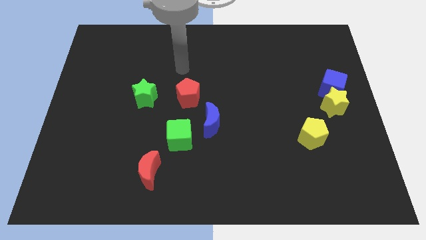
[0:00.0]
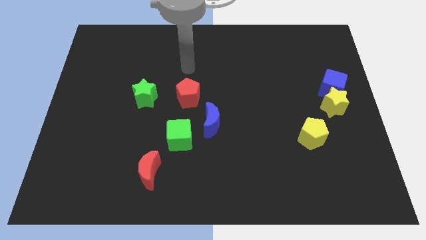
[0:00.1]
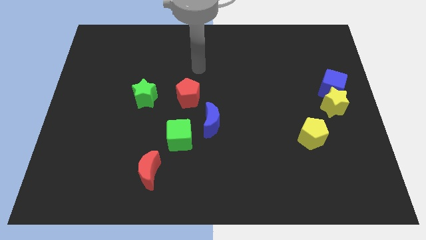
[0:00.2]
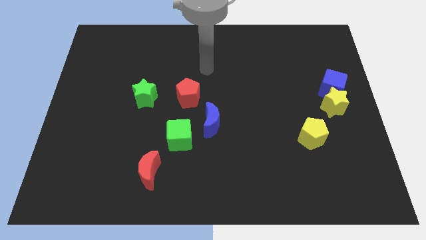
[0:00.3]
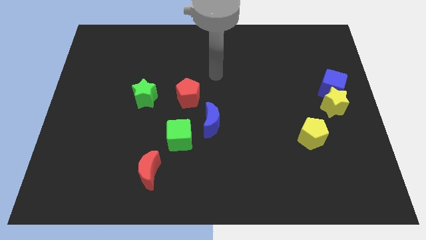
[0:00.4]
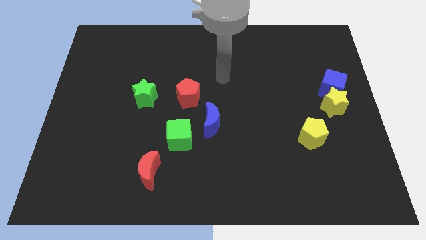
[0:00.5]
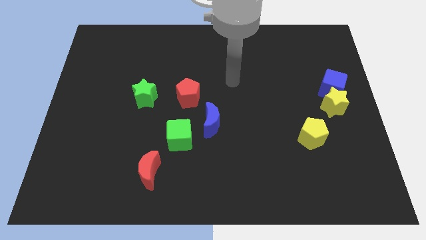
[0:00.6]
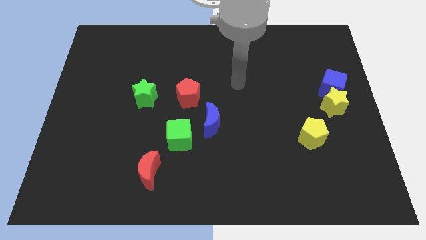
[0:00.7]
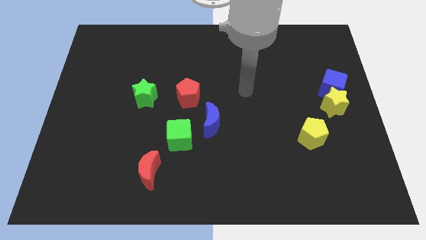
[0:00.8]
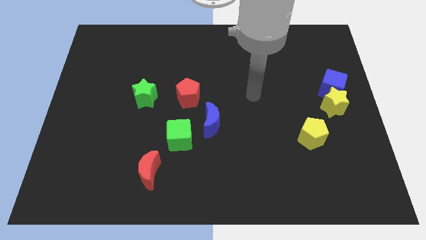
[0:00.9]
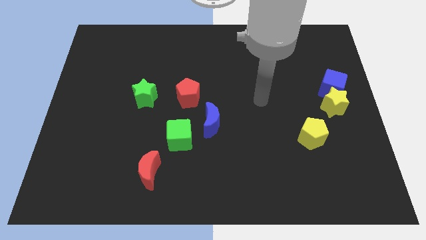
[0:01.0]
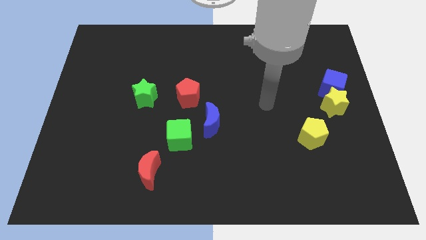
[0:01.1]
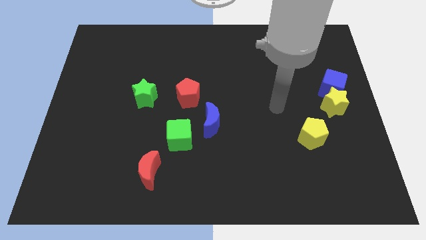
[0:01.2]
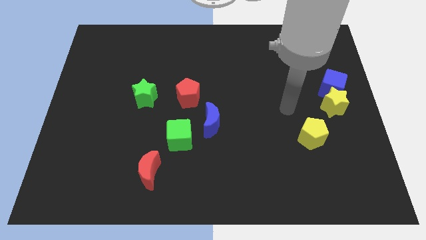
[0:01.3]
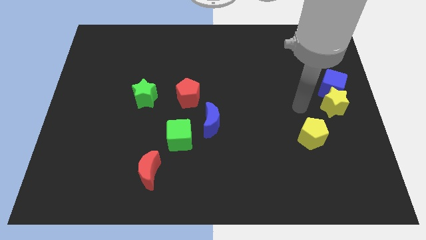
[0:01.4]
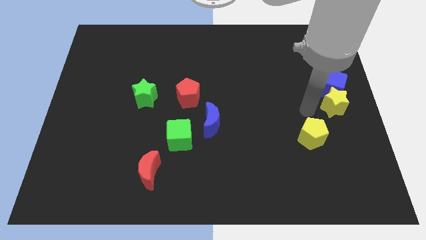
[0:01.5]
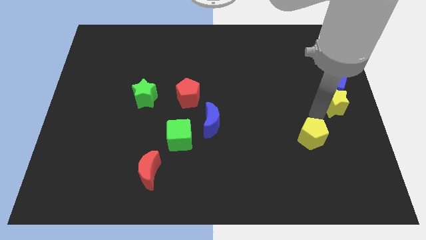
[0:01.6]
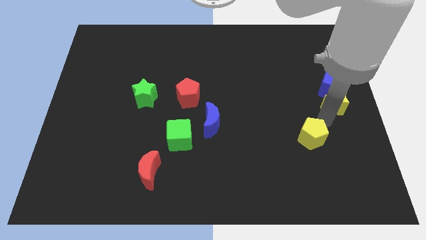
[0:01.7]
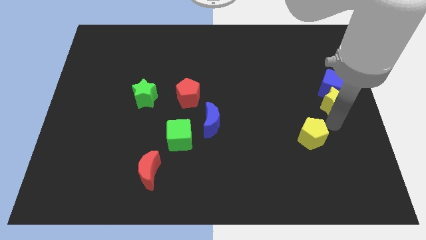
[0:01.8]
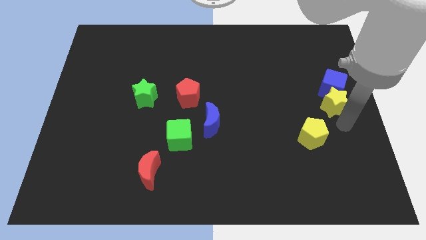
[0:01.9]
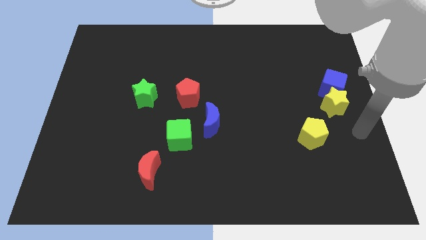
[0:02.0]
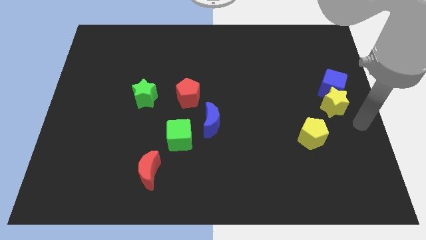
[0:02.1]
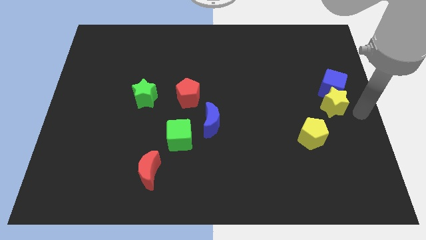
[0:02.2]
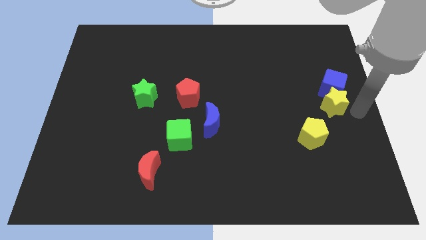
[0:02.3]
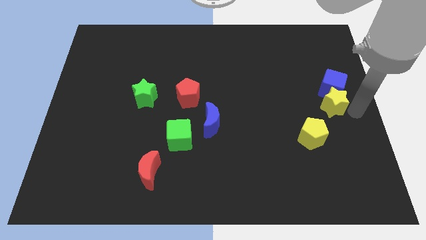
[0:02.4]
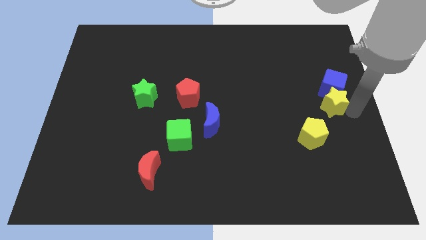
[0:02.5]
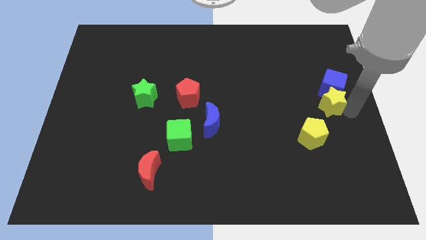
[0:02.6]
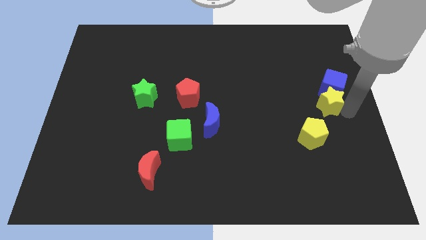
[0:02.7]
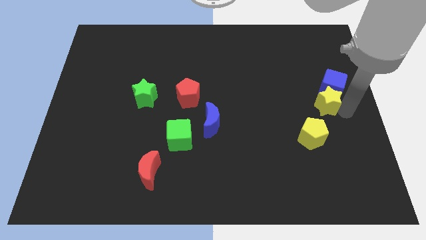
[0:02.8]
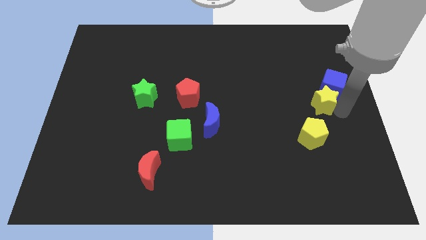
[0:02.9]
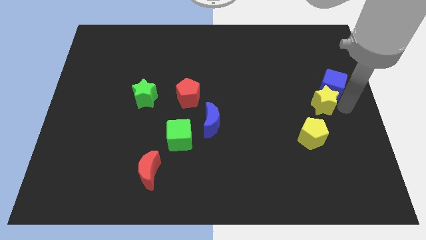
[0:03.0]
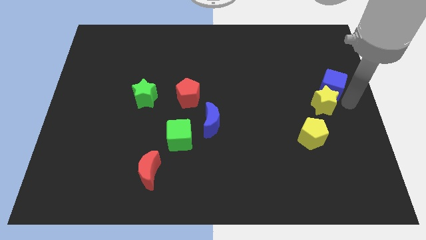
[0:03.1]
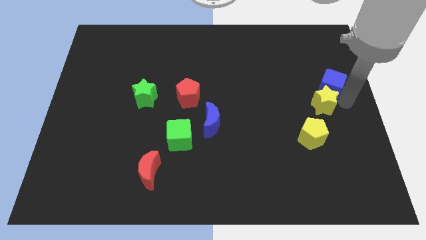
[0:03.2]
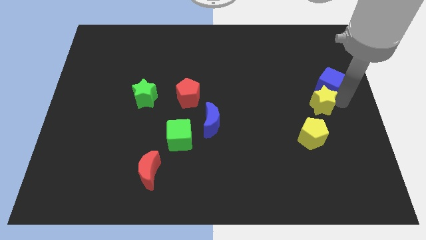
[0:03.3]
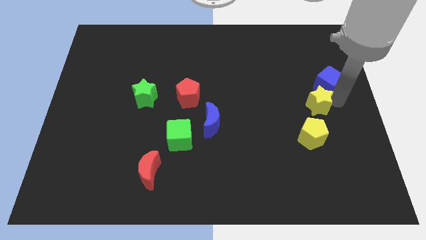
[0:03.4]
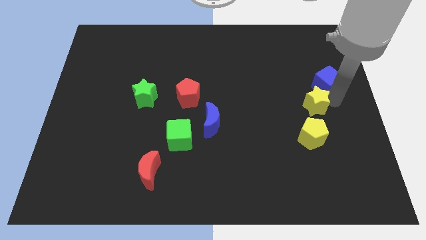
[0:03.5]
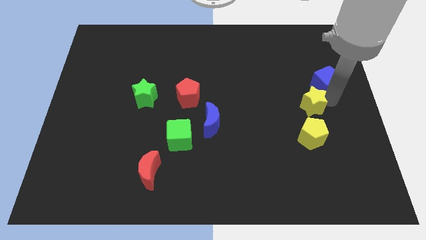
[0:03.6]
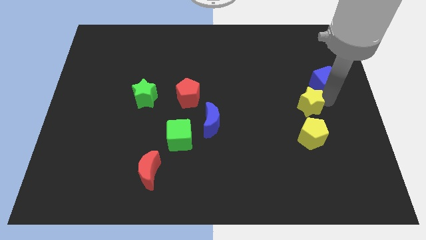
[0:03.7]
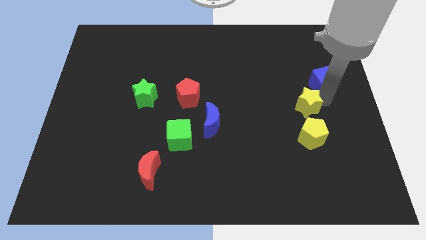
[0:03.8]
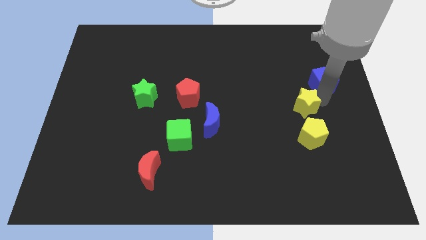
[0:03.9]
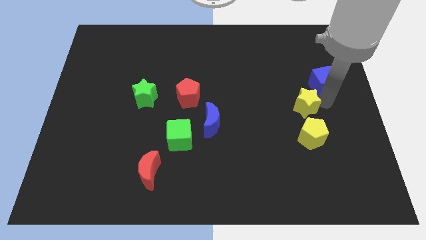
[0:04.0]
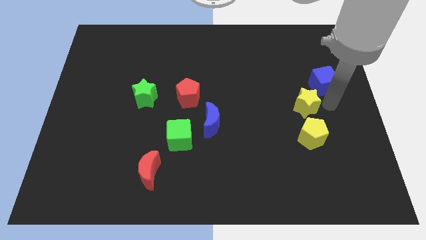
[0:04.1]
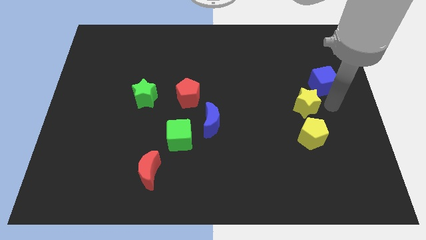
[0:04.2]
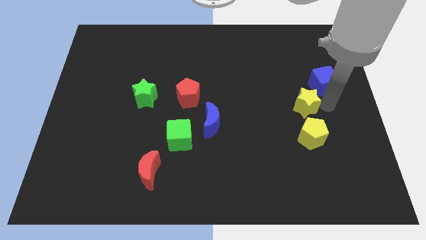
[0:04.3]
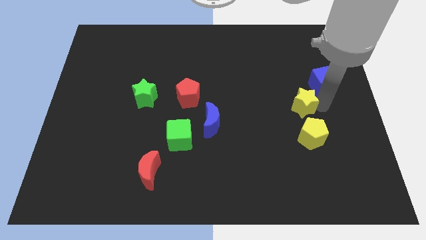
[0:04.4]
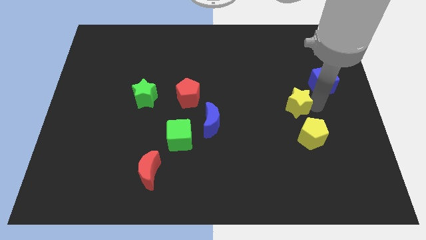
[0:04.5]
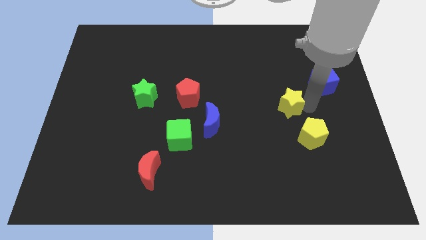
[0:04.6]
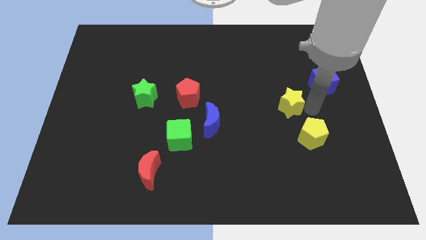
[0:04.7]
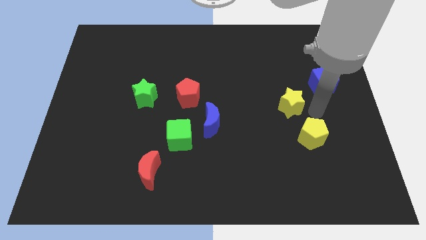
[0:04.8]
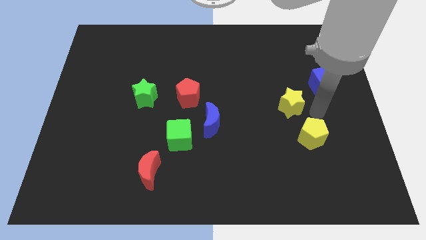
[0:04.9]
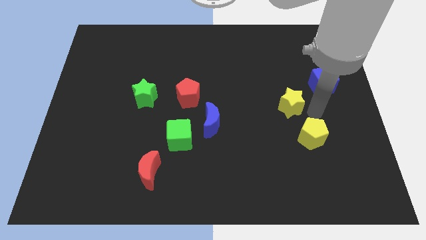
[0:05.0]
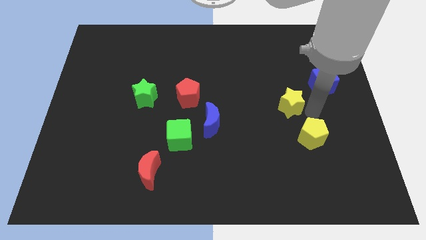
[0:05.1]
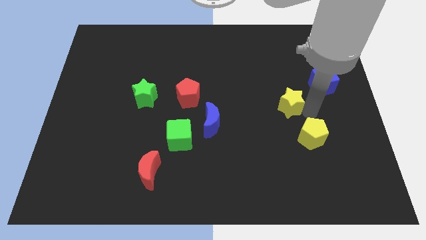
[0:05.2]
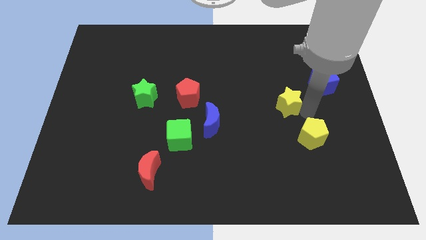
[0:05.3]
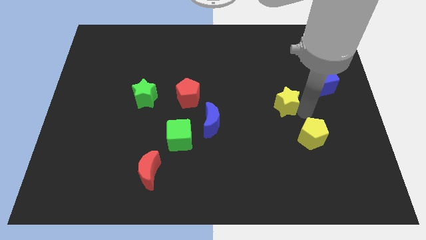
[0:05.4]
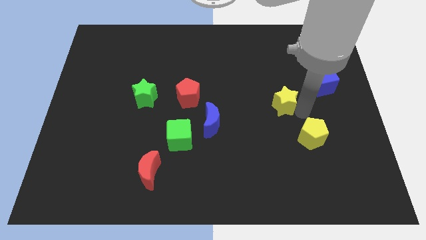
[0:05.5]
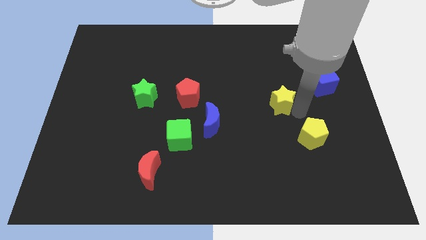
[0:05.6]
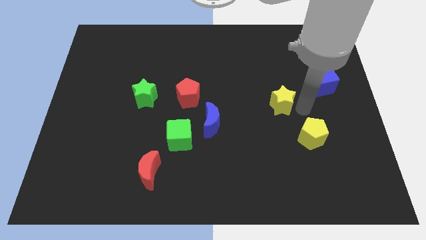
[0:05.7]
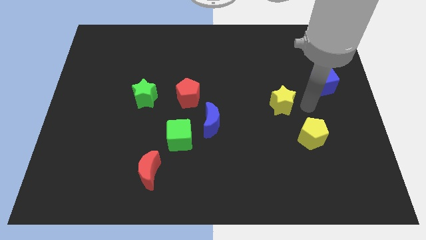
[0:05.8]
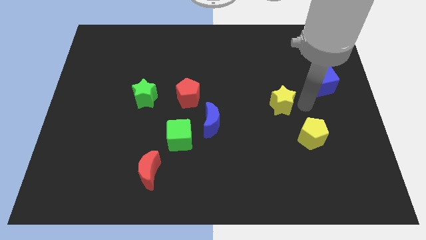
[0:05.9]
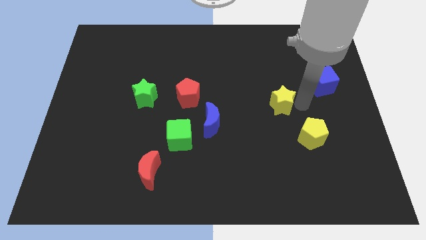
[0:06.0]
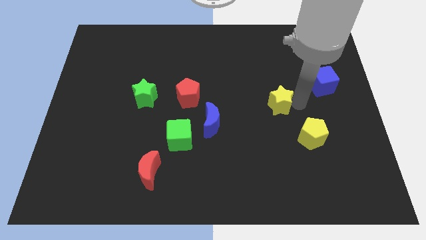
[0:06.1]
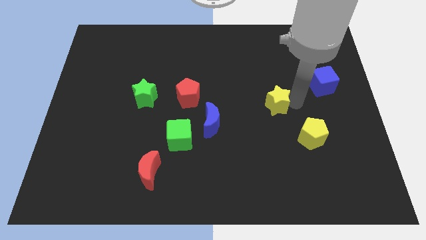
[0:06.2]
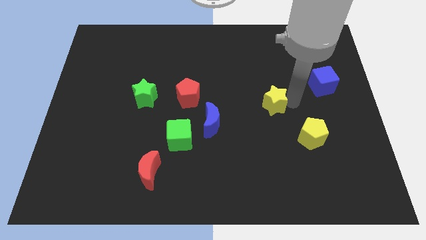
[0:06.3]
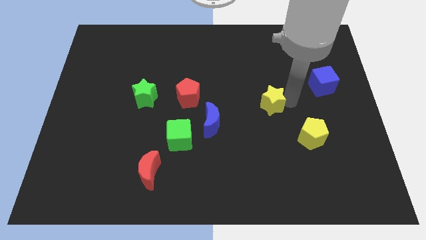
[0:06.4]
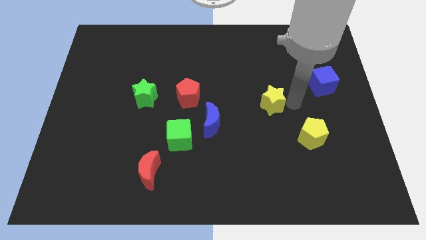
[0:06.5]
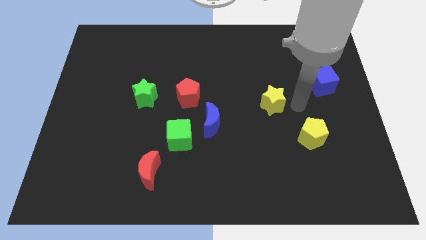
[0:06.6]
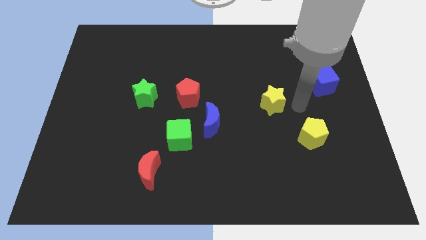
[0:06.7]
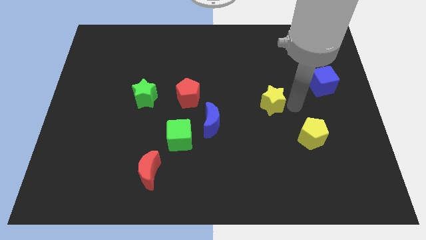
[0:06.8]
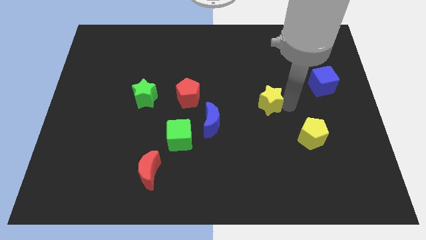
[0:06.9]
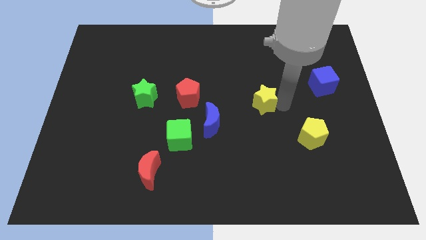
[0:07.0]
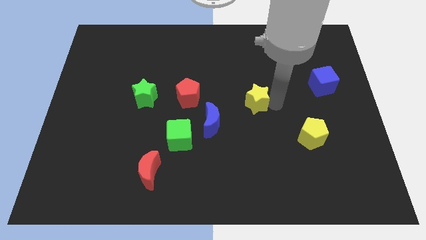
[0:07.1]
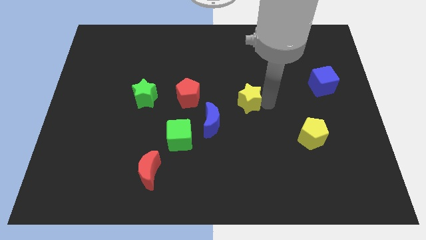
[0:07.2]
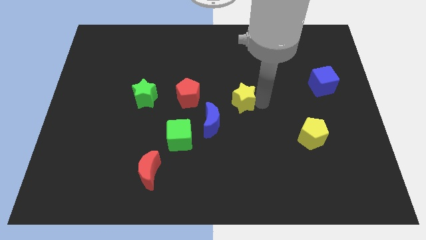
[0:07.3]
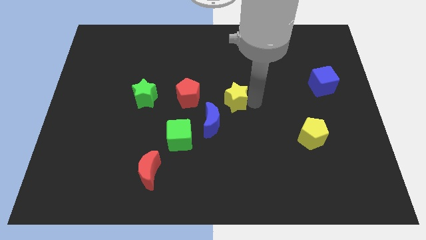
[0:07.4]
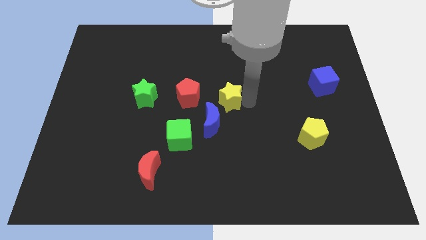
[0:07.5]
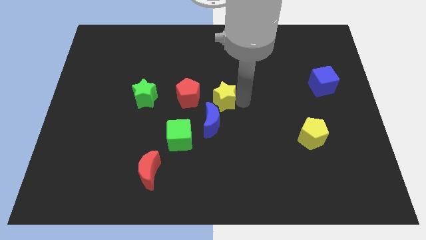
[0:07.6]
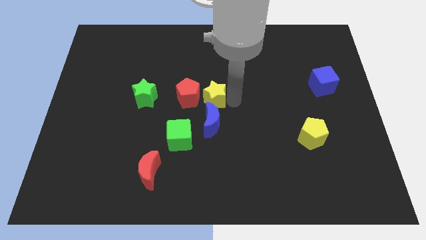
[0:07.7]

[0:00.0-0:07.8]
put the yellow star towards the red pentagon
